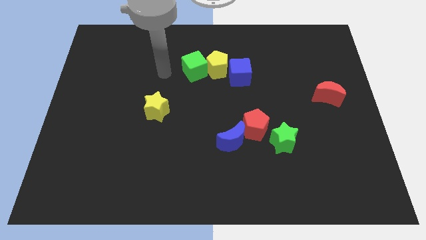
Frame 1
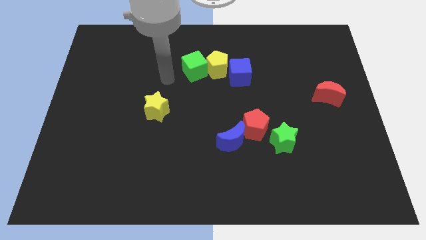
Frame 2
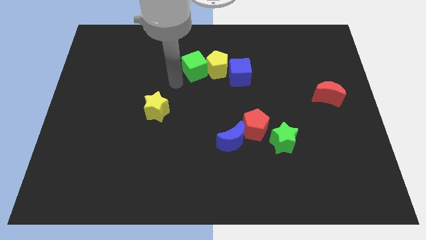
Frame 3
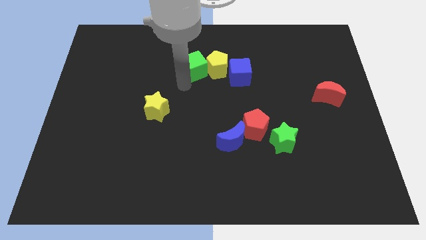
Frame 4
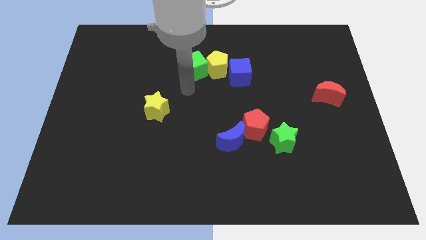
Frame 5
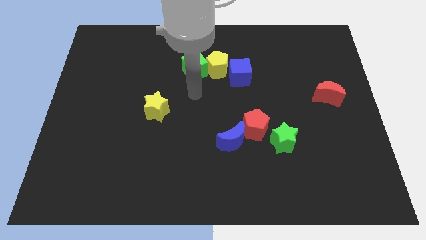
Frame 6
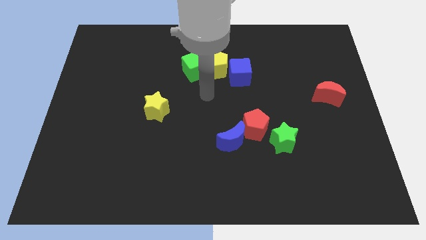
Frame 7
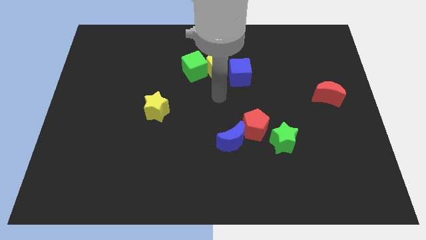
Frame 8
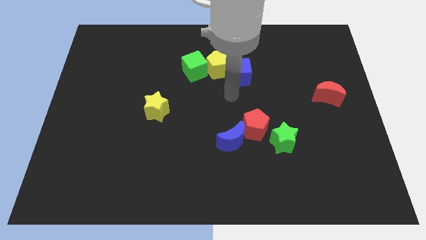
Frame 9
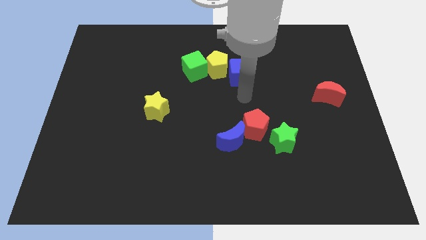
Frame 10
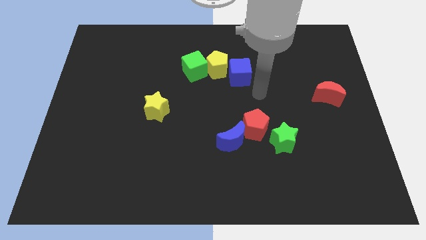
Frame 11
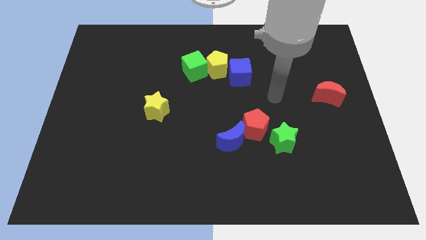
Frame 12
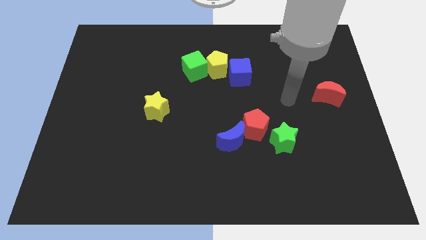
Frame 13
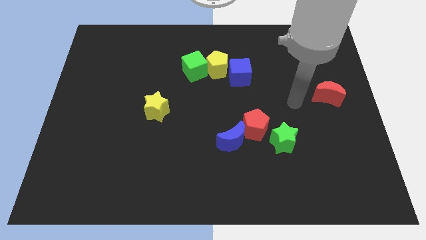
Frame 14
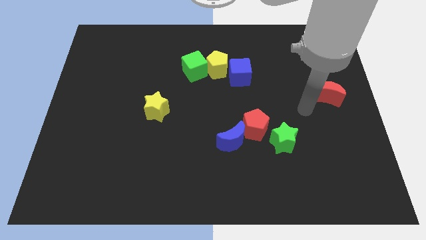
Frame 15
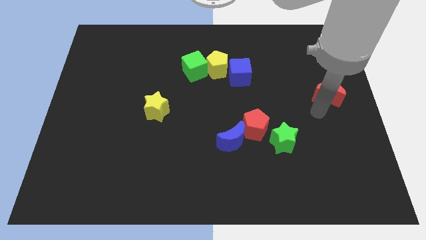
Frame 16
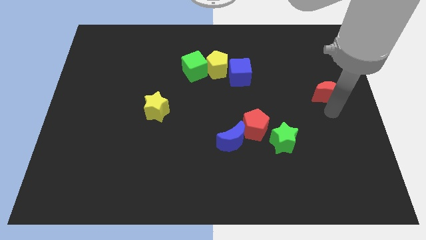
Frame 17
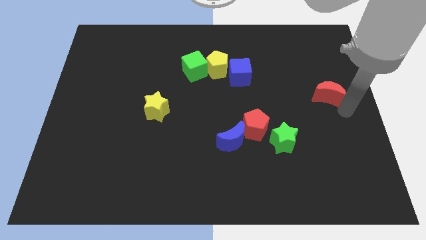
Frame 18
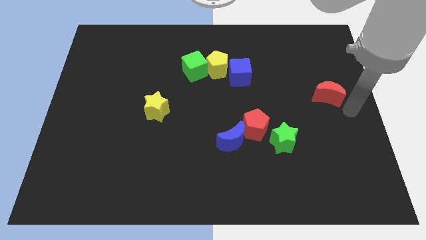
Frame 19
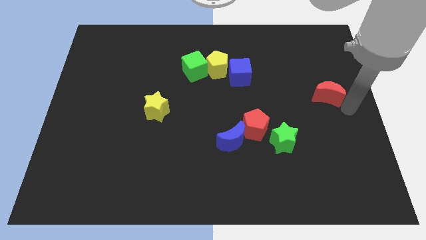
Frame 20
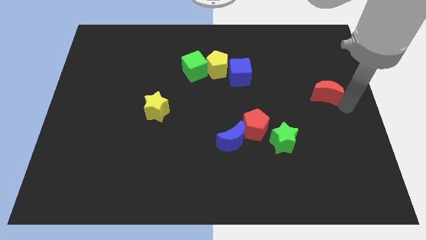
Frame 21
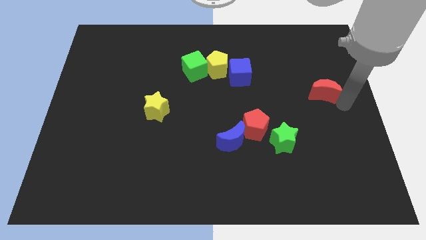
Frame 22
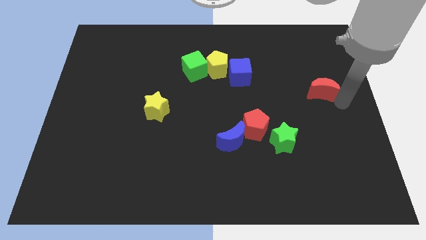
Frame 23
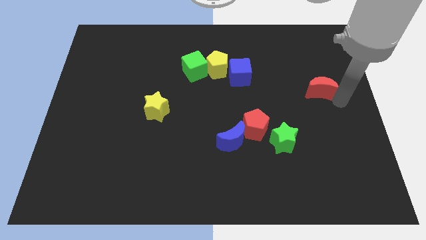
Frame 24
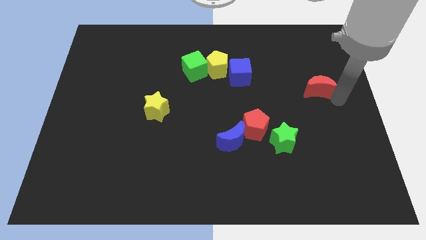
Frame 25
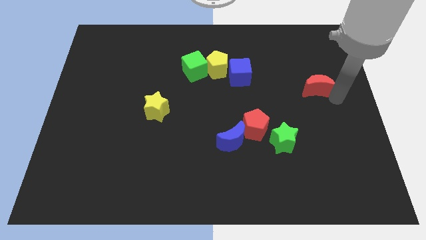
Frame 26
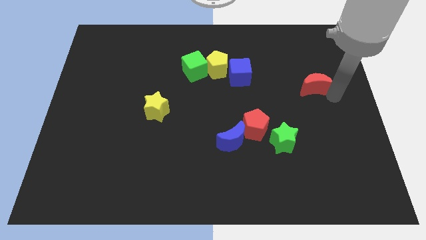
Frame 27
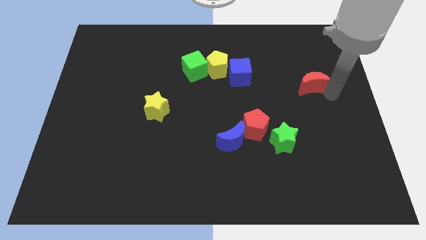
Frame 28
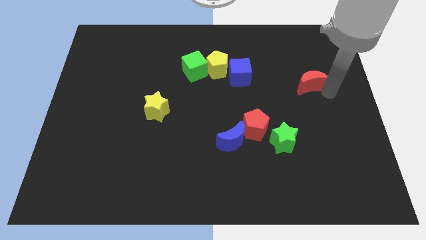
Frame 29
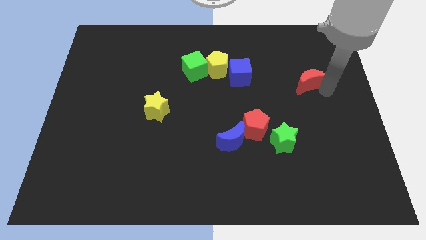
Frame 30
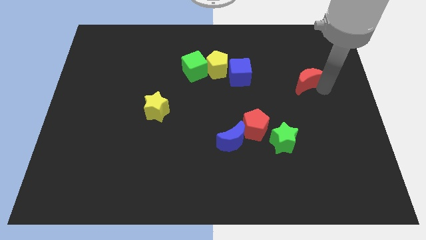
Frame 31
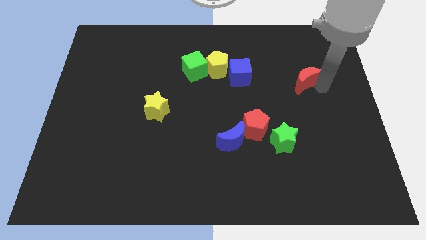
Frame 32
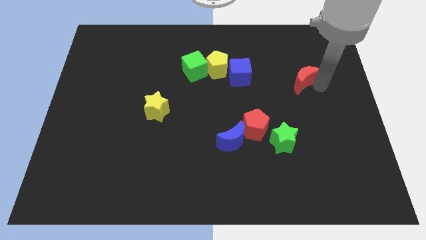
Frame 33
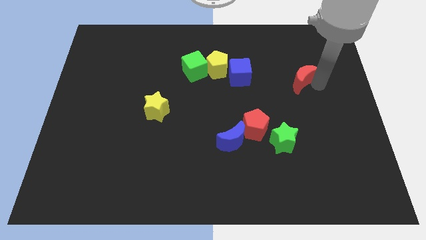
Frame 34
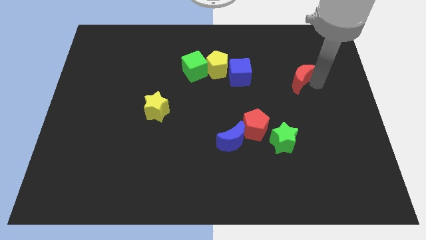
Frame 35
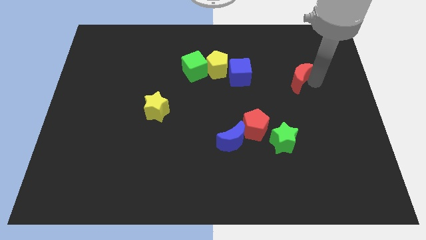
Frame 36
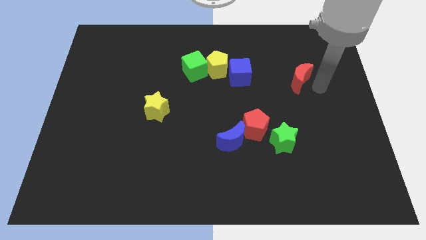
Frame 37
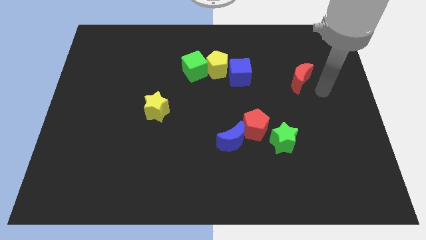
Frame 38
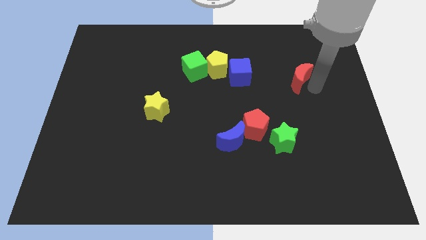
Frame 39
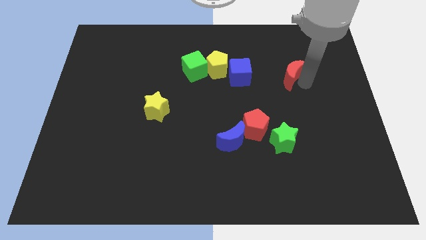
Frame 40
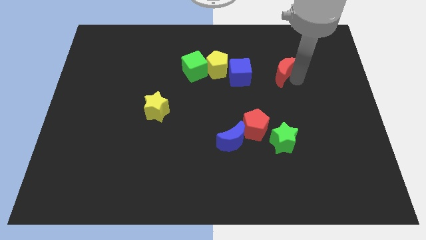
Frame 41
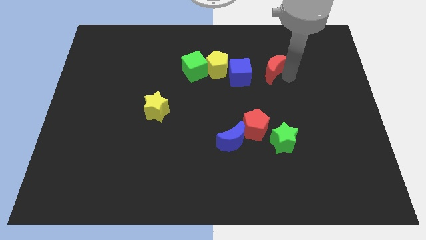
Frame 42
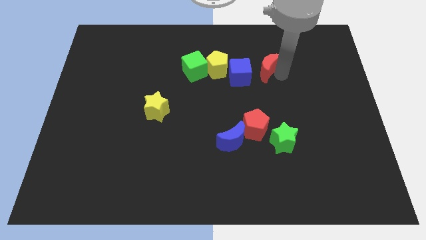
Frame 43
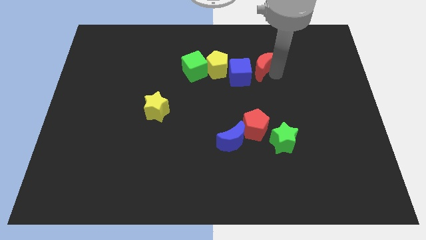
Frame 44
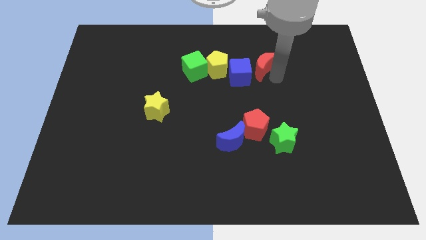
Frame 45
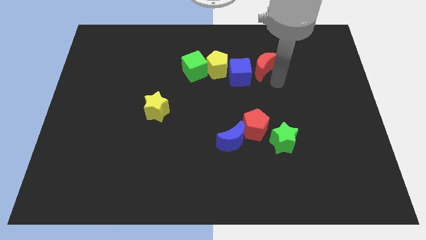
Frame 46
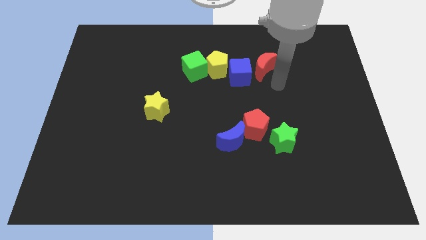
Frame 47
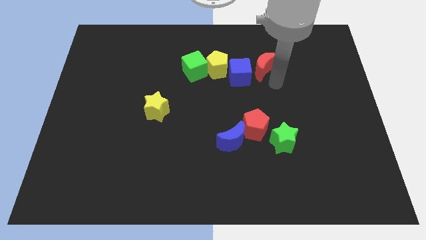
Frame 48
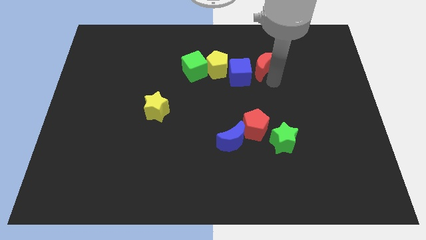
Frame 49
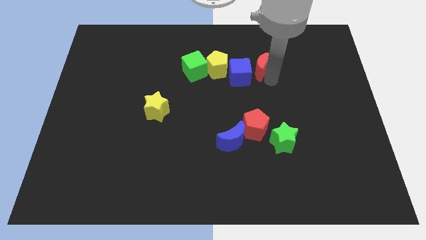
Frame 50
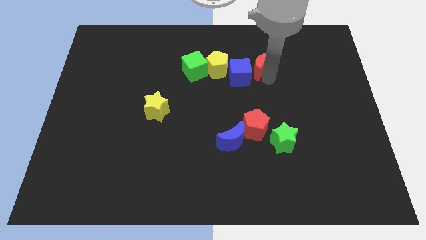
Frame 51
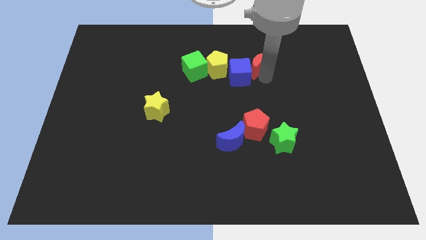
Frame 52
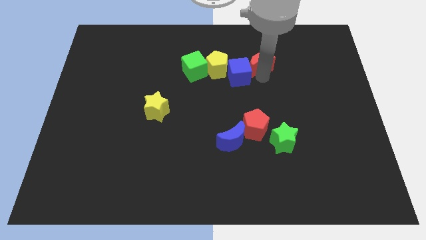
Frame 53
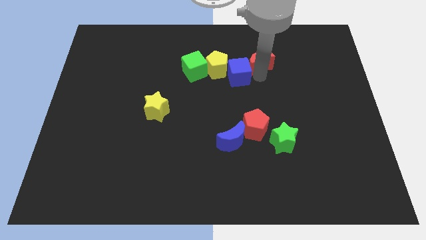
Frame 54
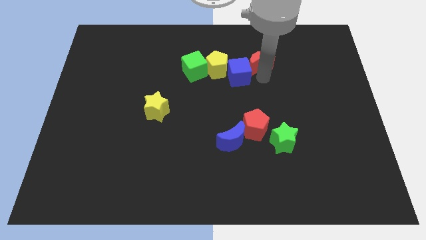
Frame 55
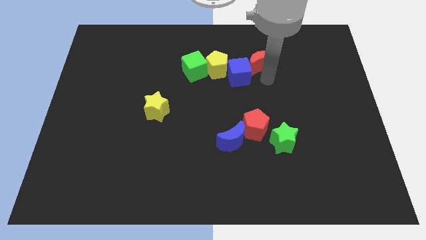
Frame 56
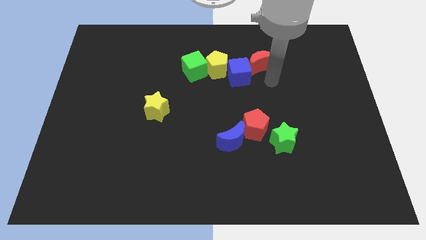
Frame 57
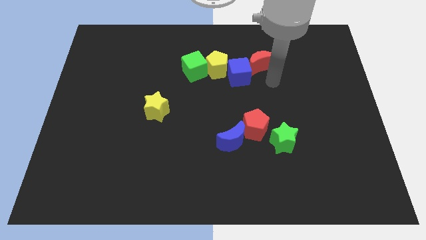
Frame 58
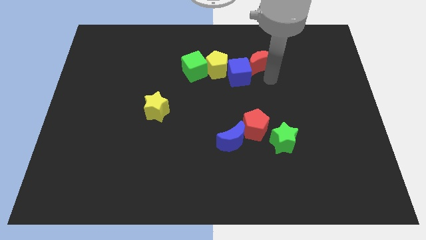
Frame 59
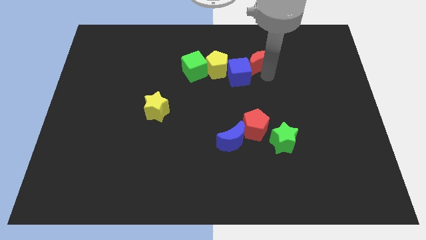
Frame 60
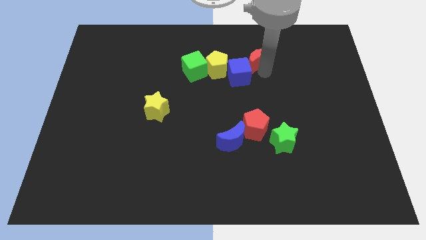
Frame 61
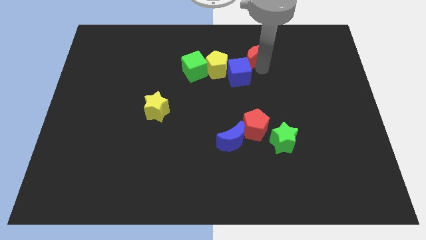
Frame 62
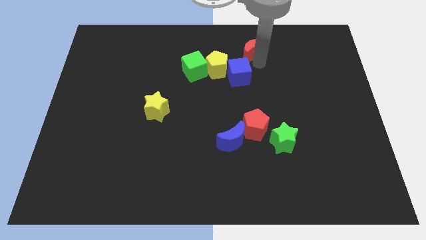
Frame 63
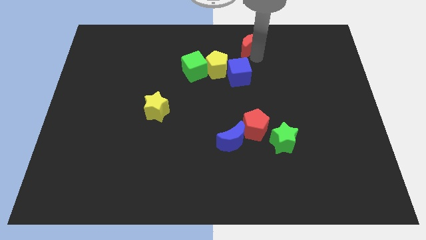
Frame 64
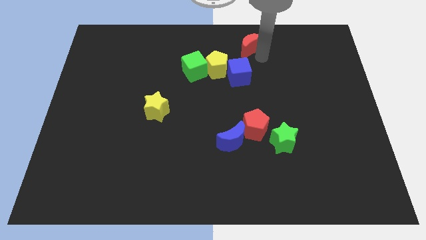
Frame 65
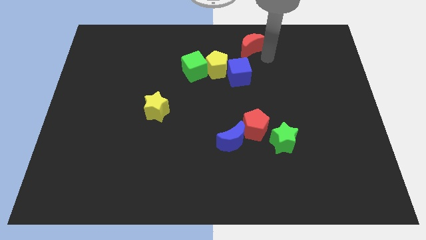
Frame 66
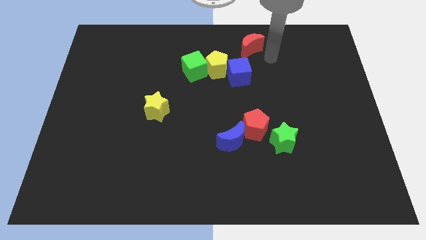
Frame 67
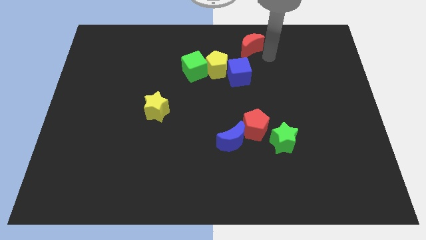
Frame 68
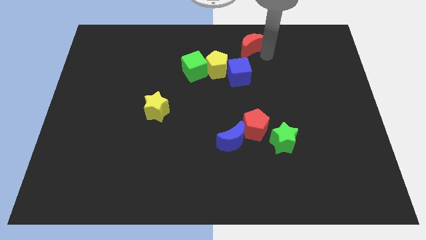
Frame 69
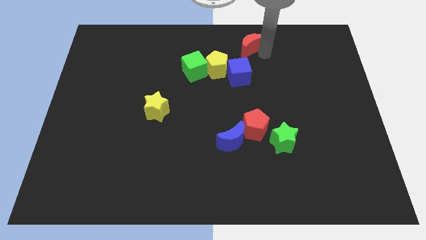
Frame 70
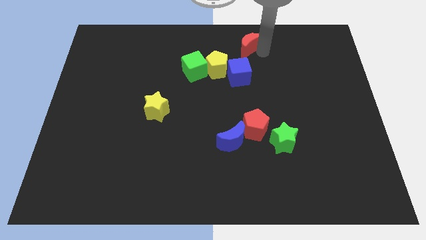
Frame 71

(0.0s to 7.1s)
push the red moon to the top

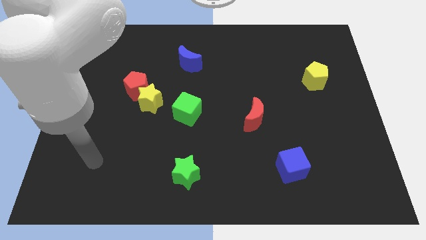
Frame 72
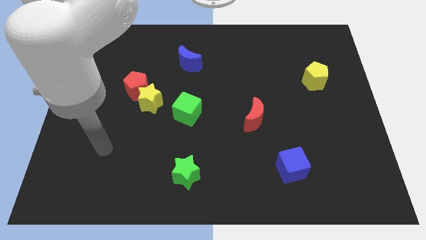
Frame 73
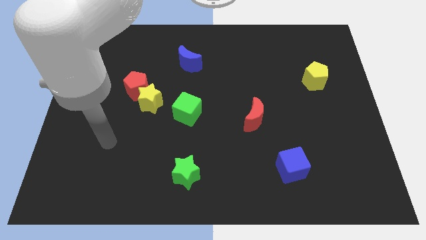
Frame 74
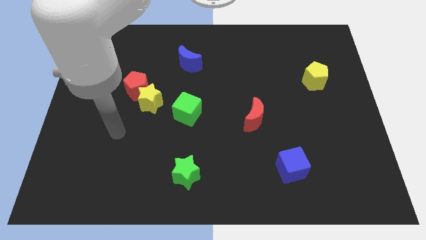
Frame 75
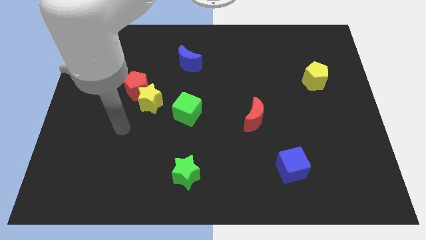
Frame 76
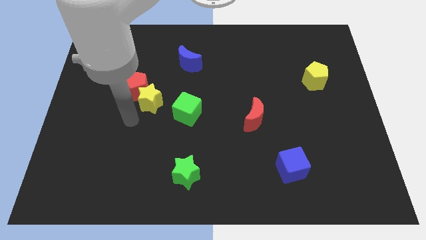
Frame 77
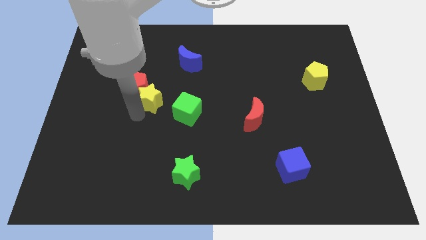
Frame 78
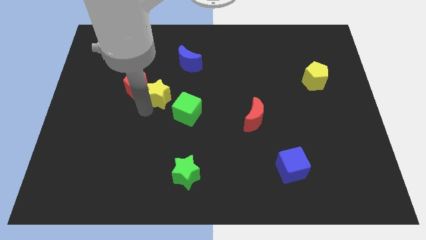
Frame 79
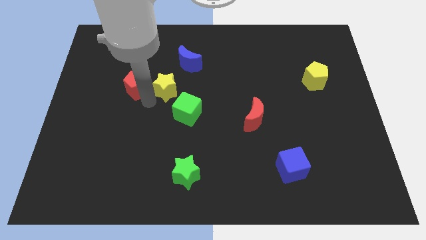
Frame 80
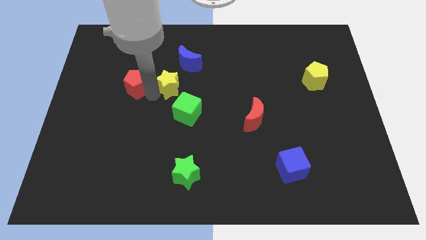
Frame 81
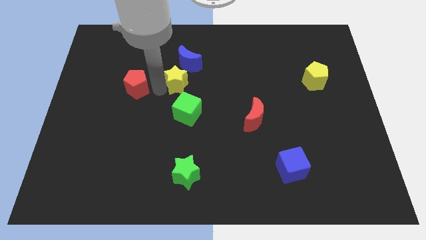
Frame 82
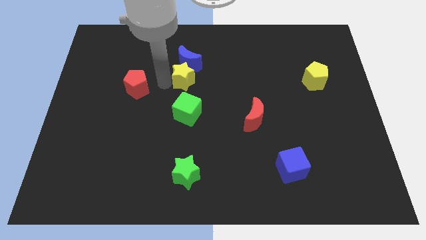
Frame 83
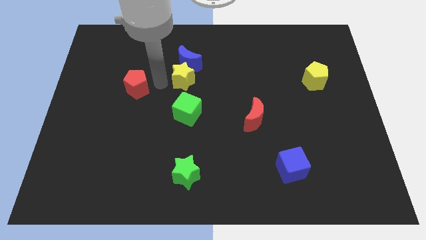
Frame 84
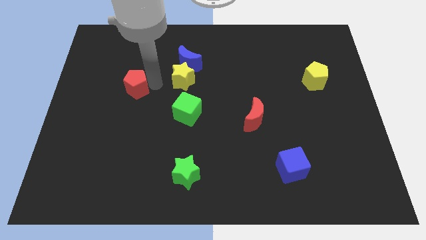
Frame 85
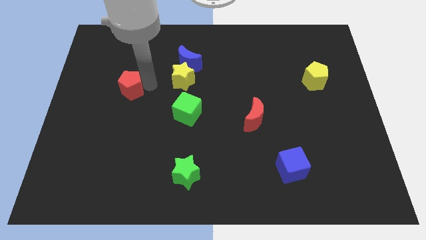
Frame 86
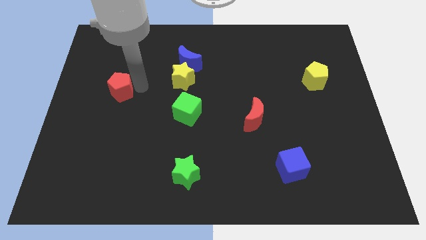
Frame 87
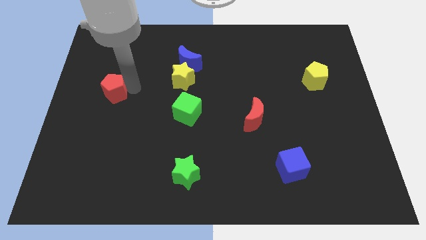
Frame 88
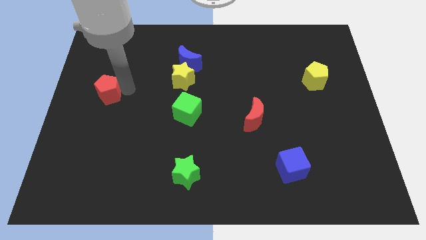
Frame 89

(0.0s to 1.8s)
push the red pentagon to the left side of the board
